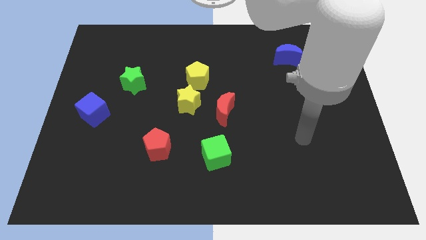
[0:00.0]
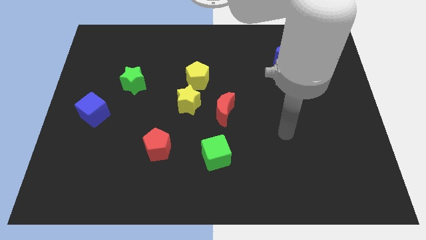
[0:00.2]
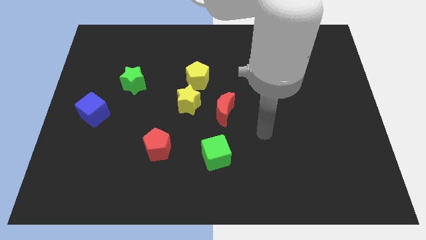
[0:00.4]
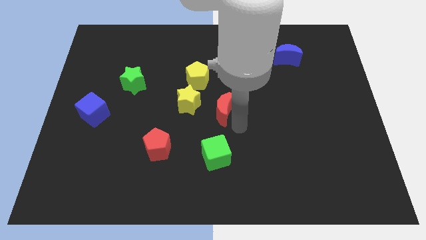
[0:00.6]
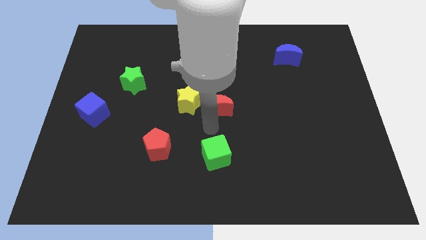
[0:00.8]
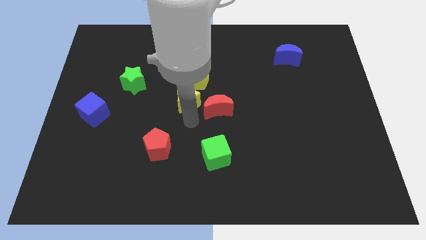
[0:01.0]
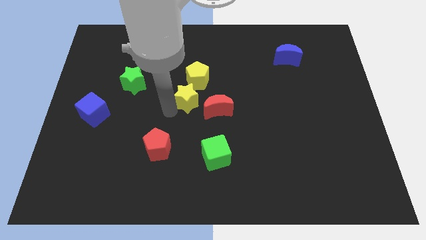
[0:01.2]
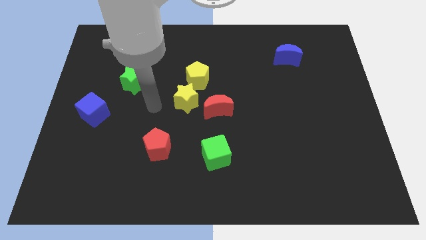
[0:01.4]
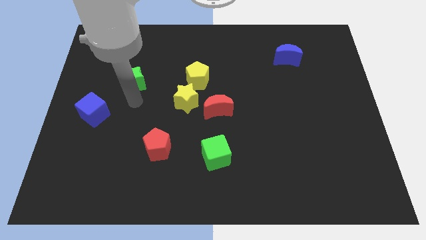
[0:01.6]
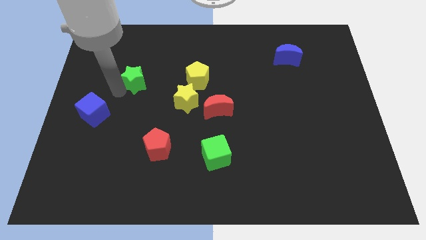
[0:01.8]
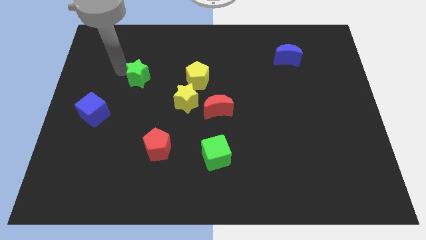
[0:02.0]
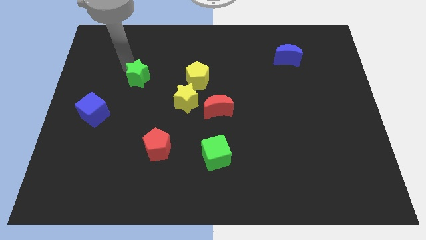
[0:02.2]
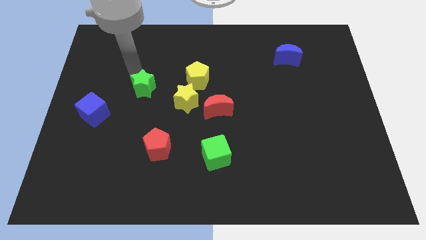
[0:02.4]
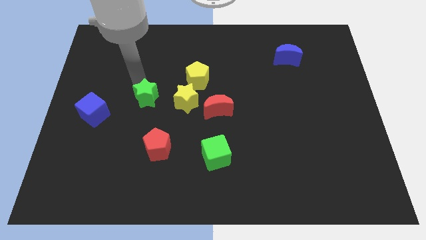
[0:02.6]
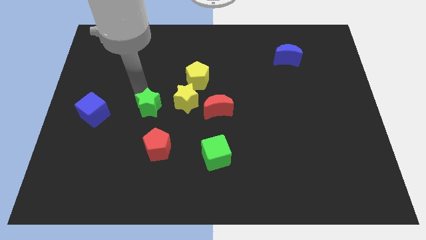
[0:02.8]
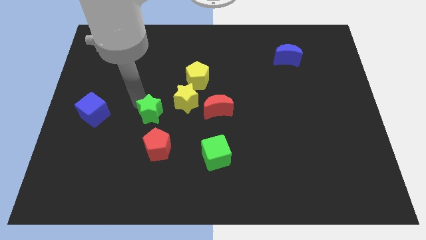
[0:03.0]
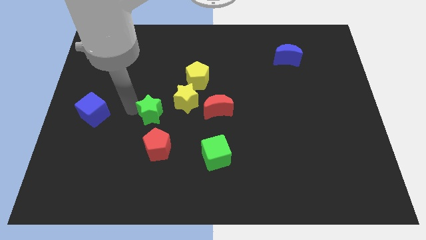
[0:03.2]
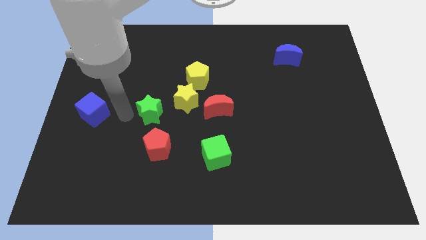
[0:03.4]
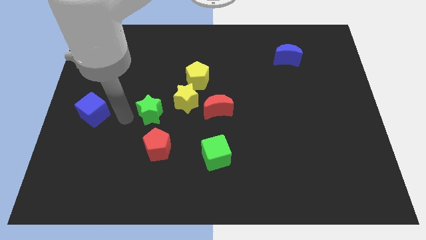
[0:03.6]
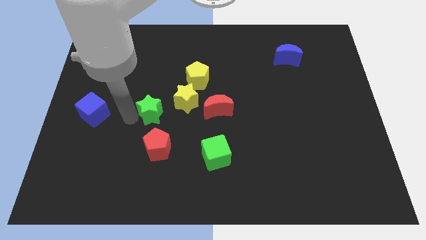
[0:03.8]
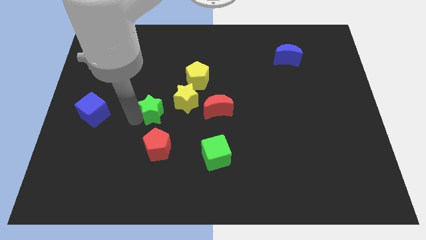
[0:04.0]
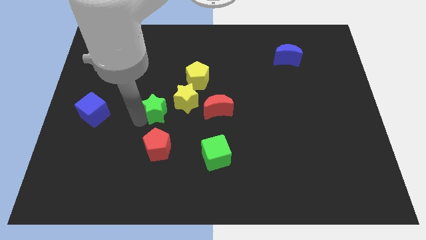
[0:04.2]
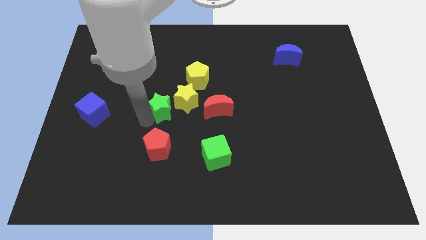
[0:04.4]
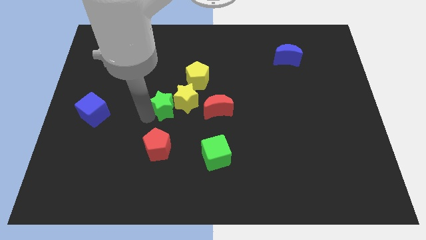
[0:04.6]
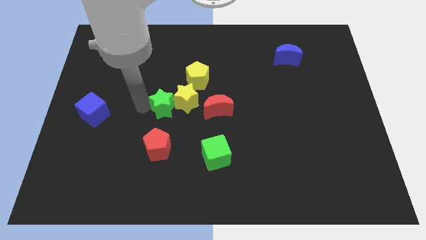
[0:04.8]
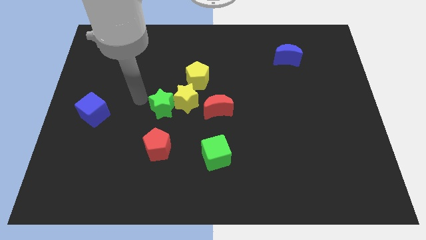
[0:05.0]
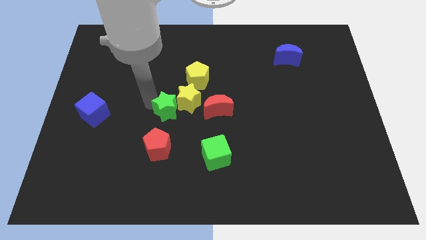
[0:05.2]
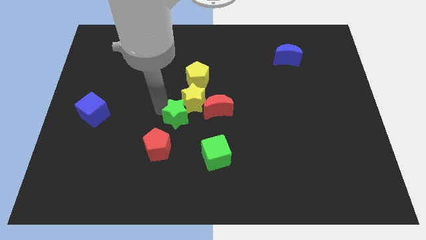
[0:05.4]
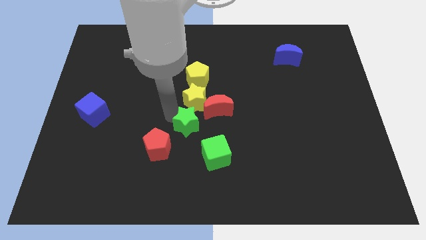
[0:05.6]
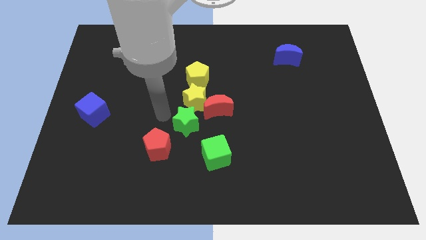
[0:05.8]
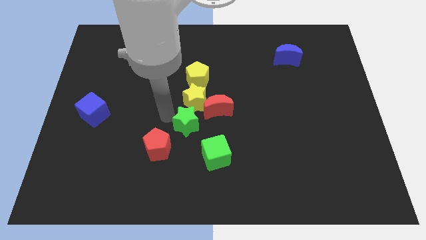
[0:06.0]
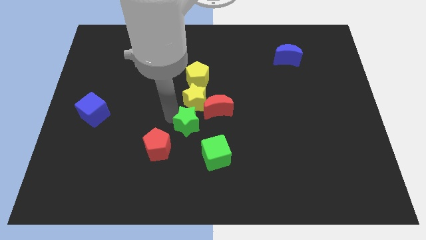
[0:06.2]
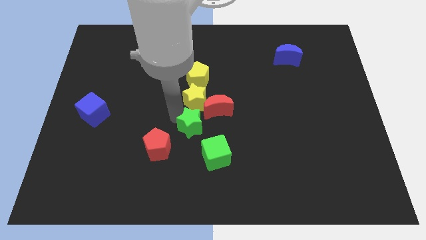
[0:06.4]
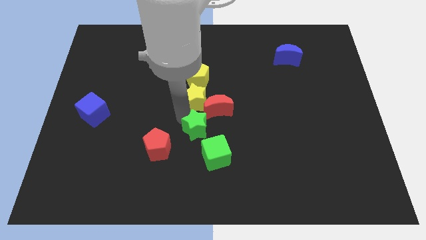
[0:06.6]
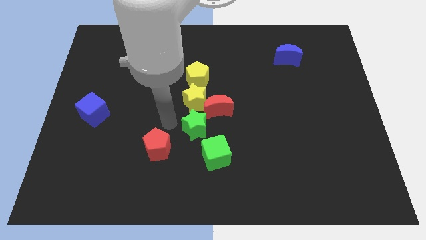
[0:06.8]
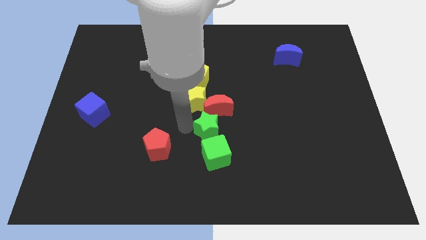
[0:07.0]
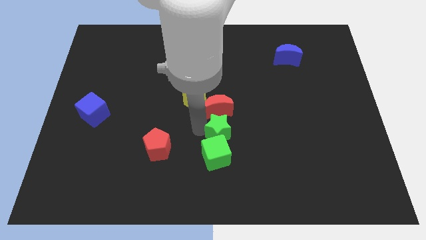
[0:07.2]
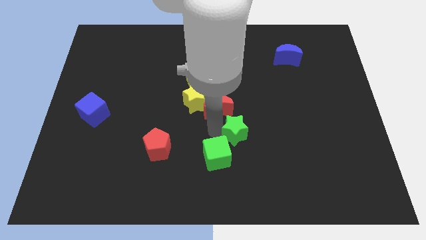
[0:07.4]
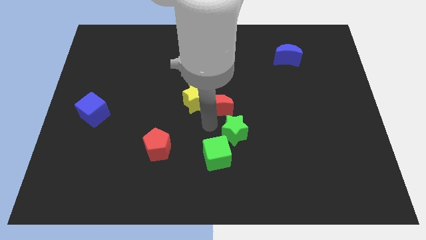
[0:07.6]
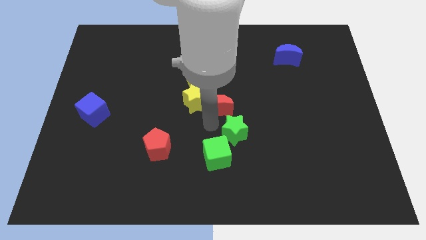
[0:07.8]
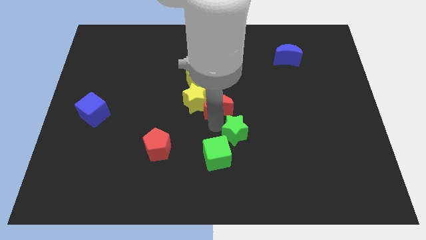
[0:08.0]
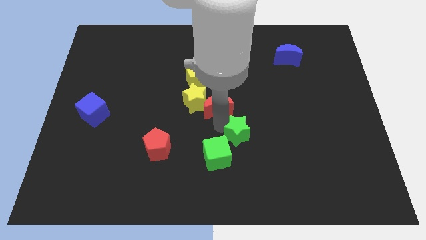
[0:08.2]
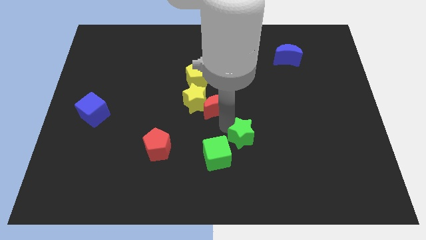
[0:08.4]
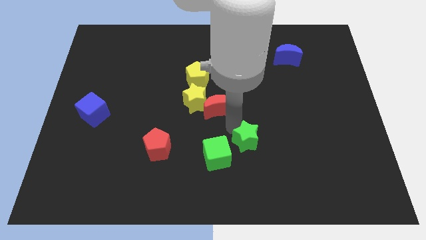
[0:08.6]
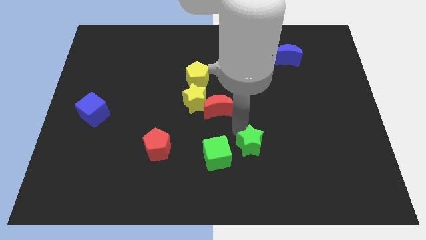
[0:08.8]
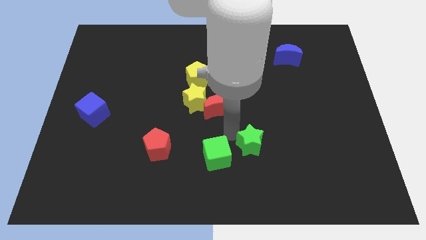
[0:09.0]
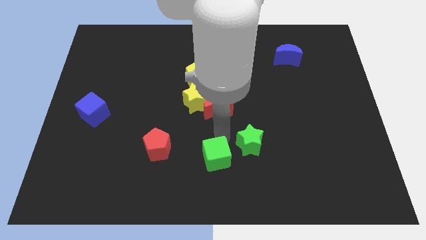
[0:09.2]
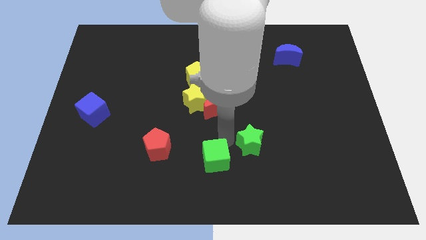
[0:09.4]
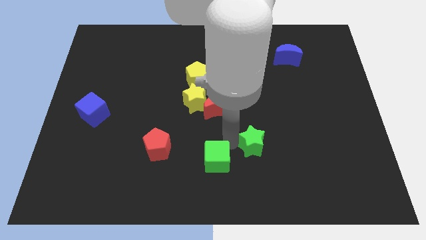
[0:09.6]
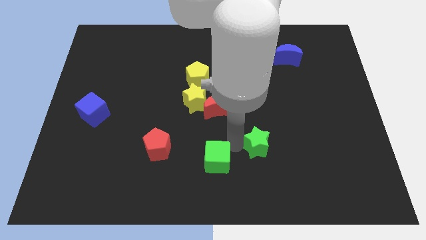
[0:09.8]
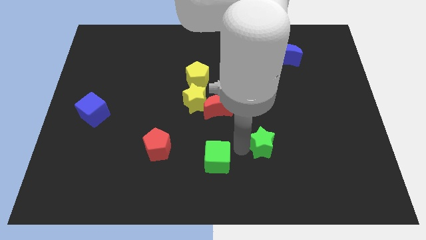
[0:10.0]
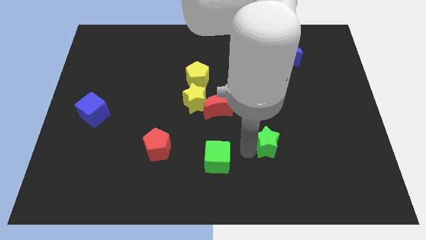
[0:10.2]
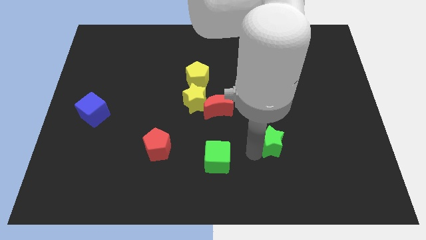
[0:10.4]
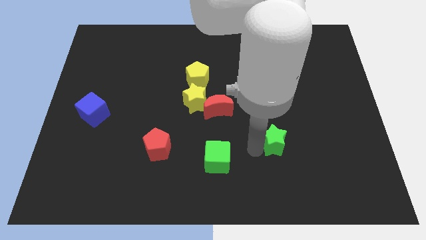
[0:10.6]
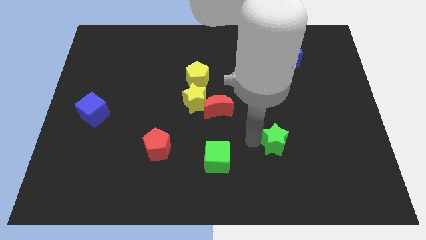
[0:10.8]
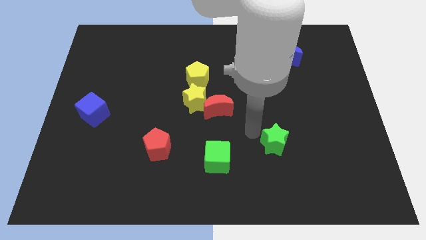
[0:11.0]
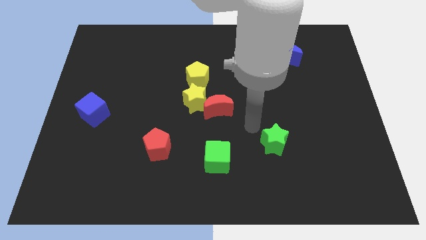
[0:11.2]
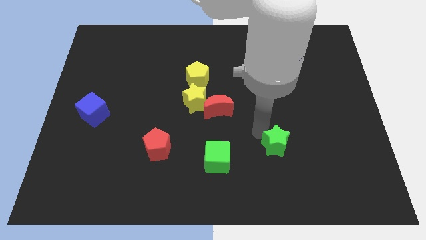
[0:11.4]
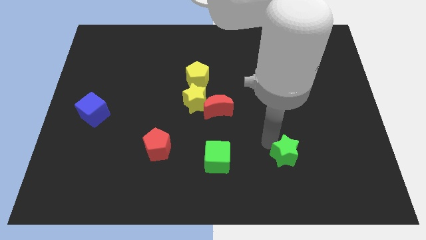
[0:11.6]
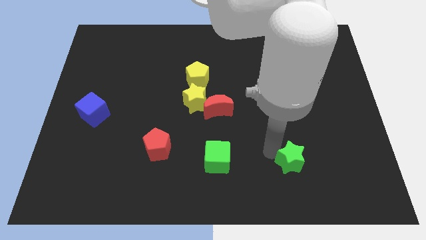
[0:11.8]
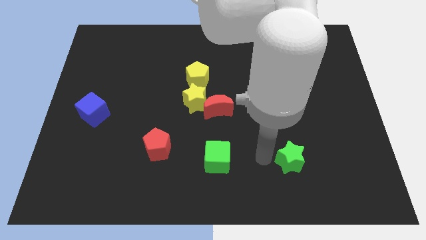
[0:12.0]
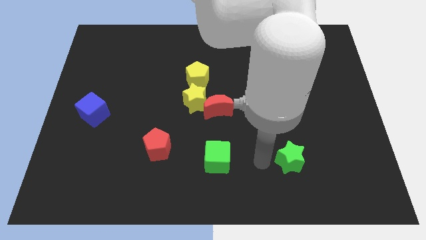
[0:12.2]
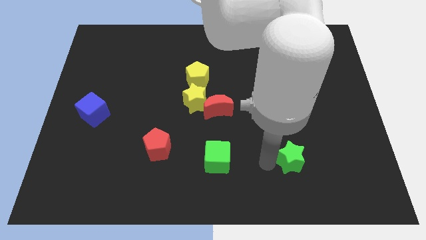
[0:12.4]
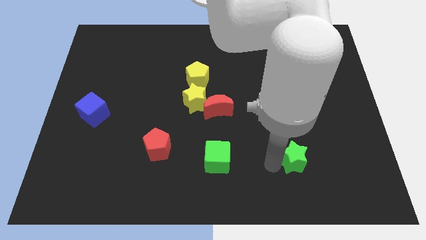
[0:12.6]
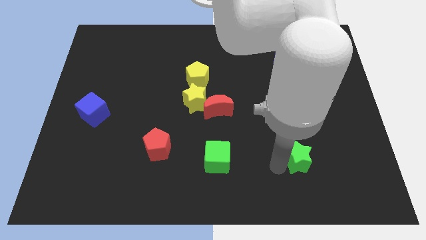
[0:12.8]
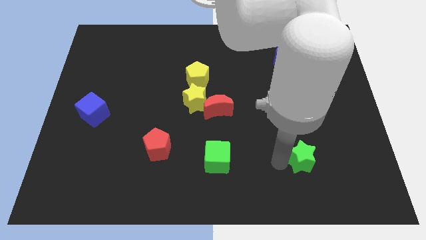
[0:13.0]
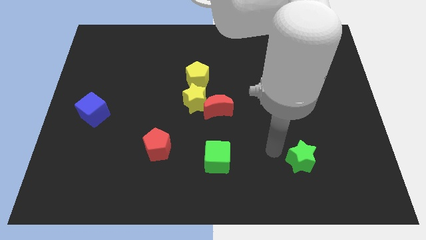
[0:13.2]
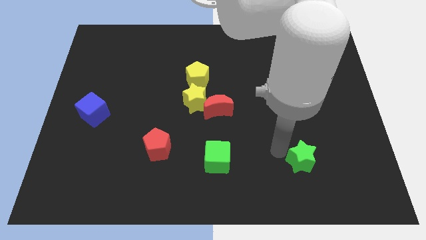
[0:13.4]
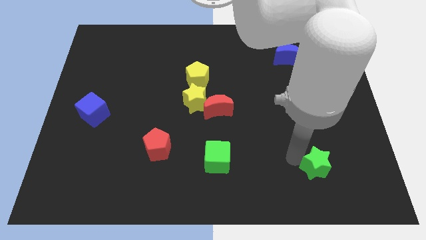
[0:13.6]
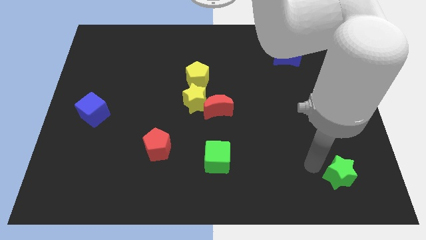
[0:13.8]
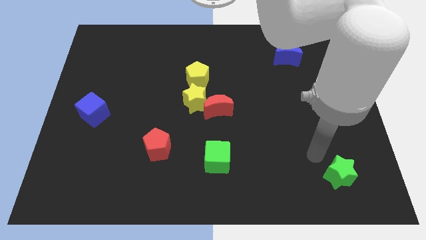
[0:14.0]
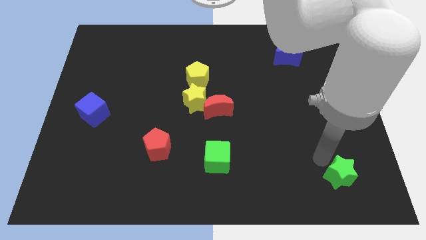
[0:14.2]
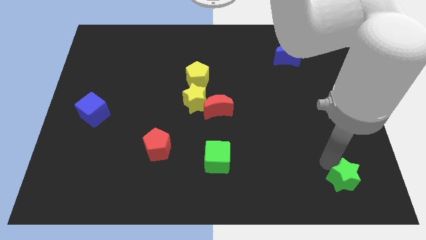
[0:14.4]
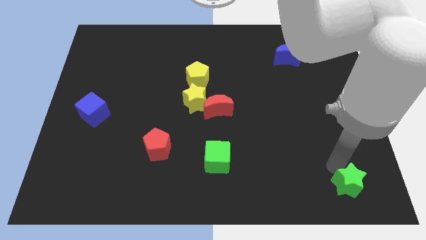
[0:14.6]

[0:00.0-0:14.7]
move the green star to the lower right corner

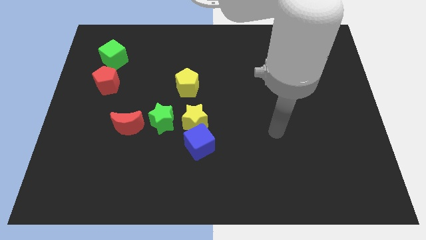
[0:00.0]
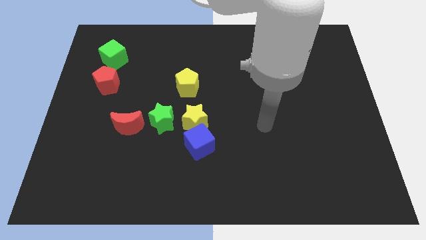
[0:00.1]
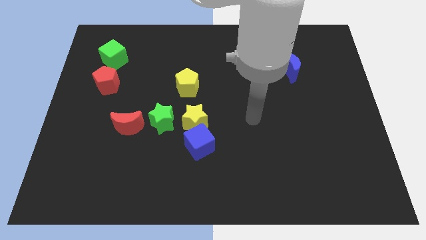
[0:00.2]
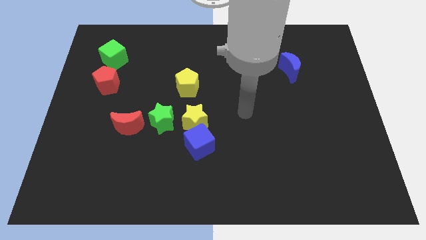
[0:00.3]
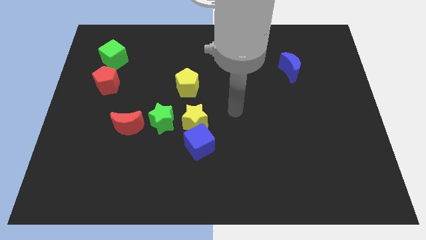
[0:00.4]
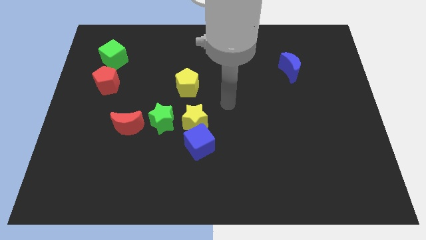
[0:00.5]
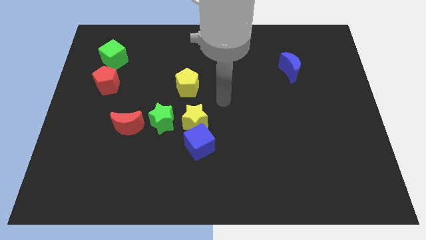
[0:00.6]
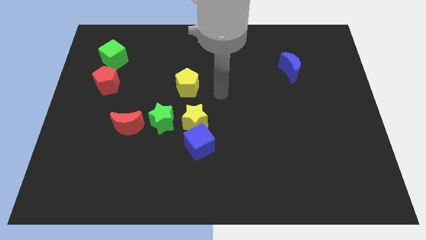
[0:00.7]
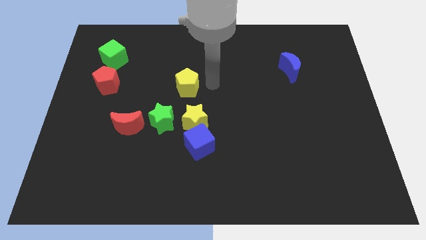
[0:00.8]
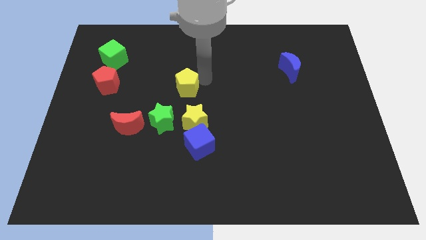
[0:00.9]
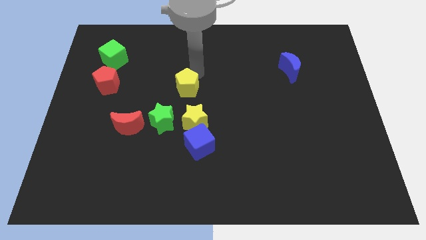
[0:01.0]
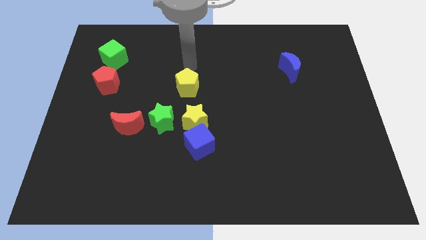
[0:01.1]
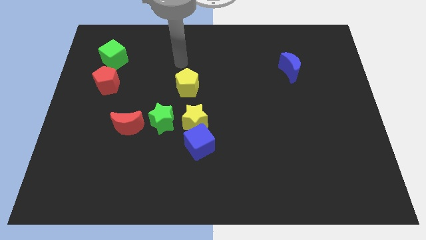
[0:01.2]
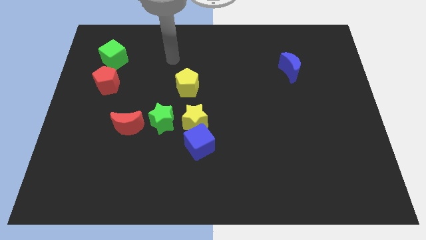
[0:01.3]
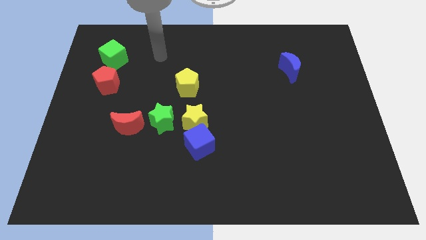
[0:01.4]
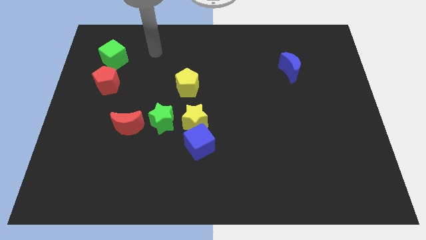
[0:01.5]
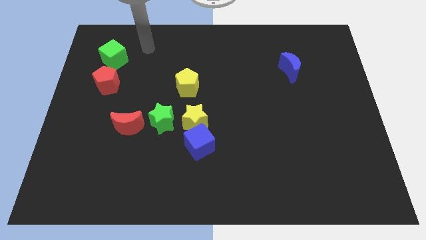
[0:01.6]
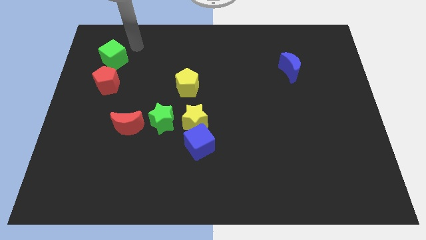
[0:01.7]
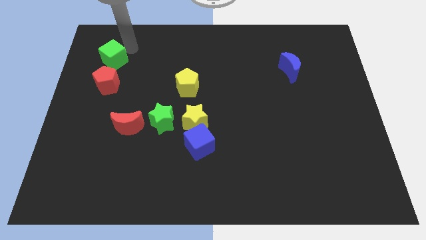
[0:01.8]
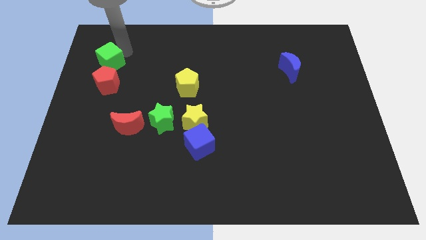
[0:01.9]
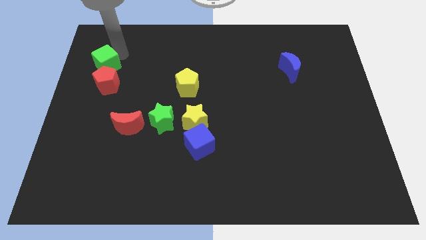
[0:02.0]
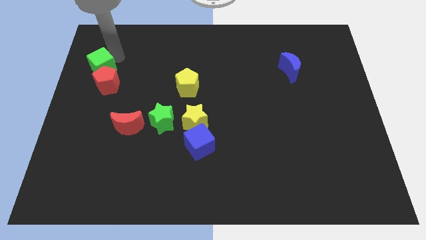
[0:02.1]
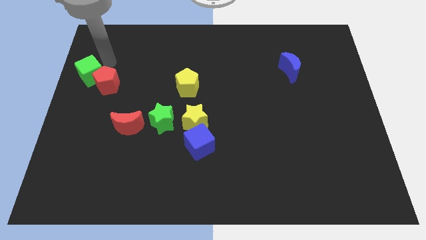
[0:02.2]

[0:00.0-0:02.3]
push the green cube to the left side of the board
